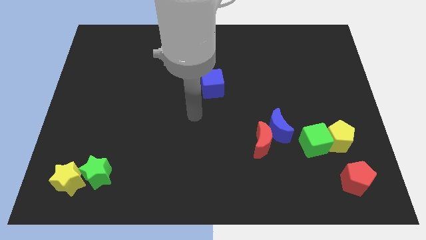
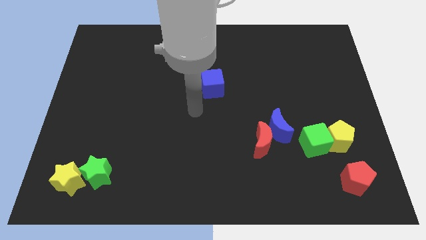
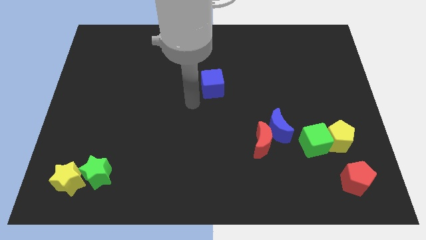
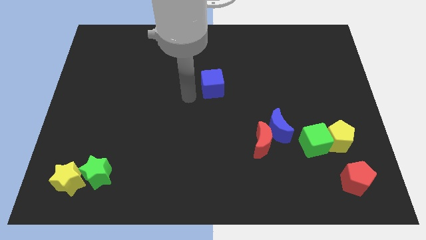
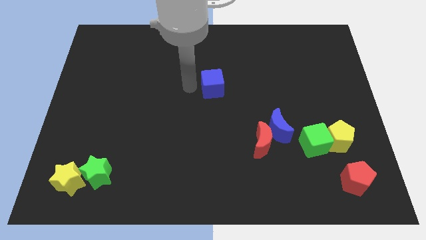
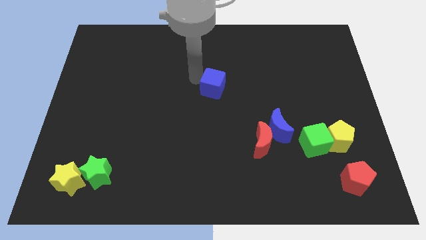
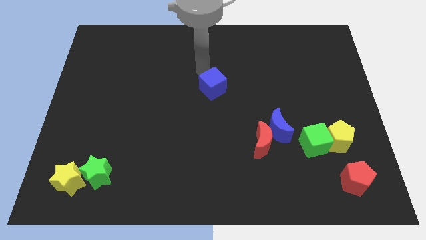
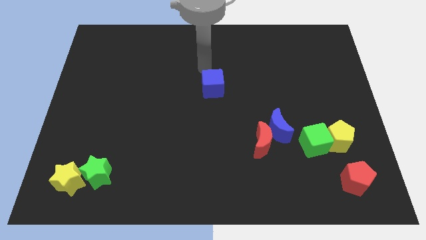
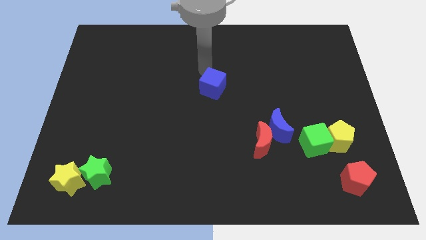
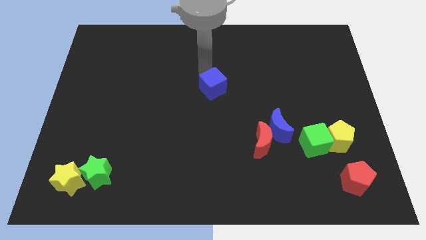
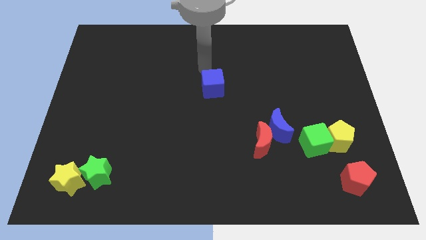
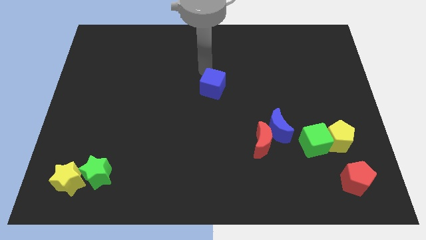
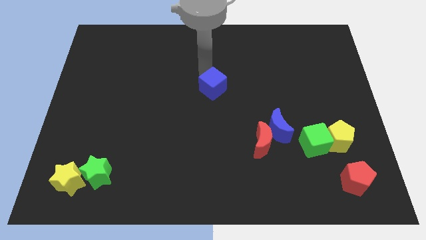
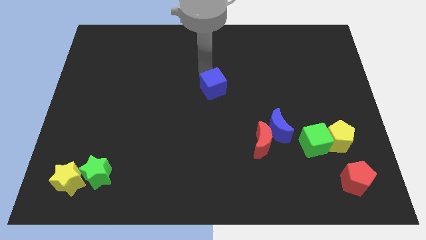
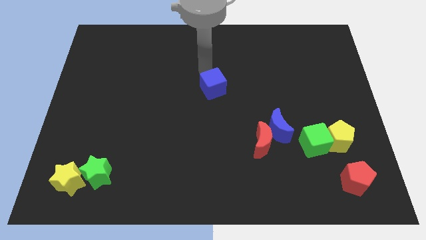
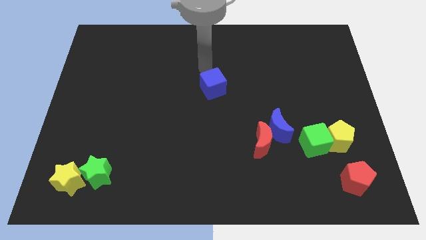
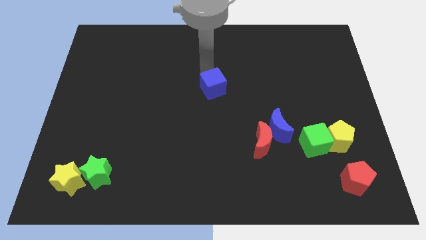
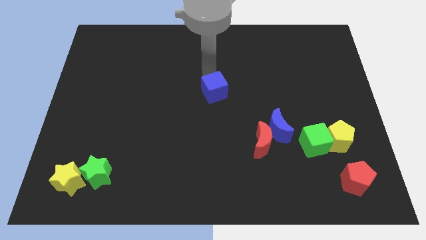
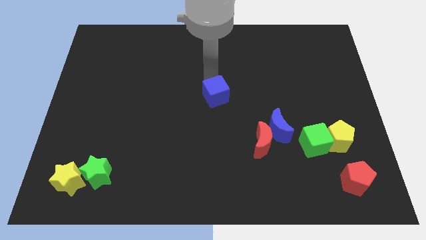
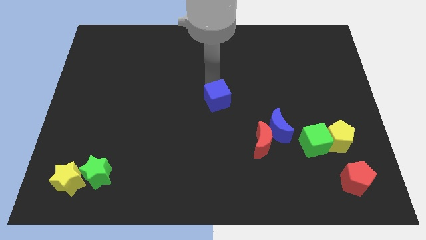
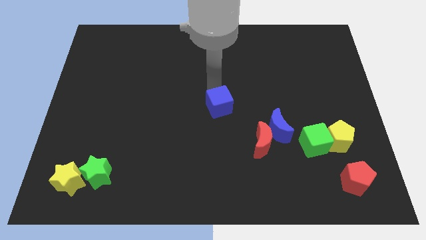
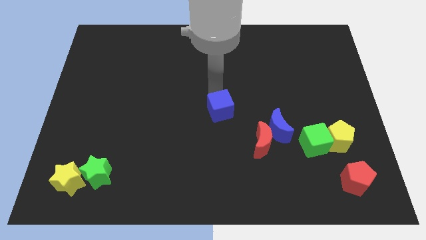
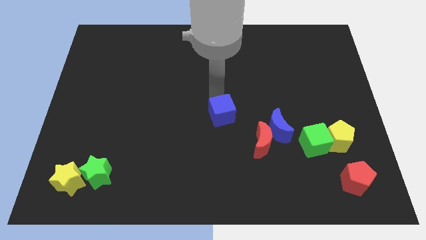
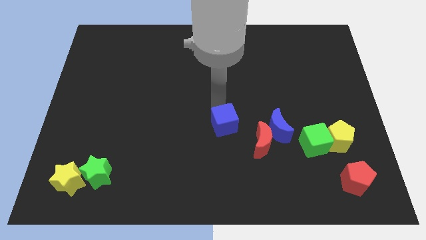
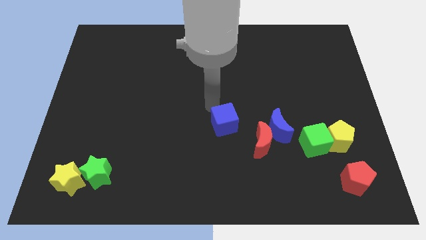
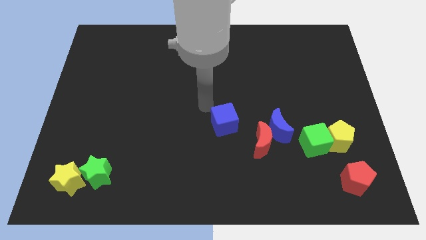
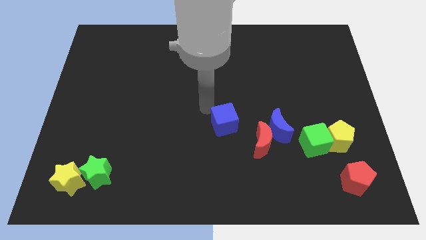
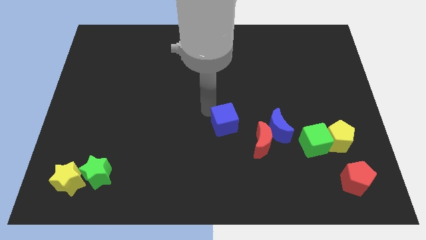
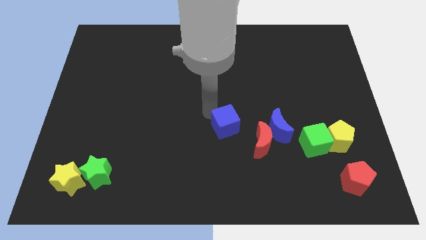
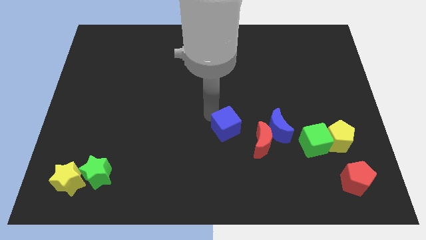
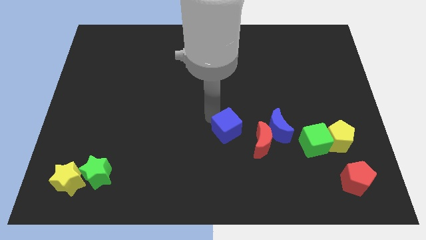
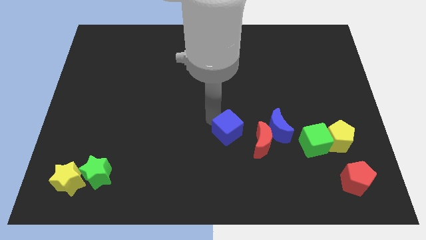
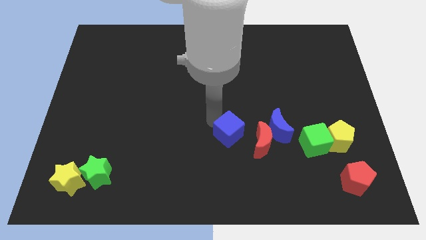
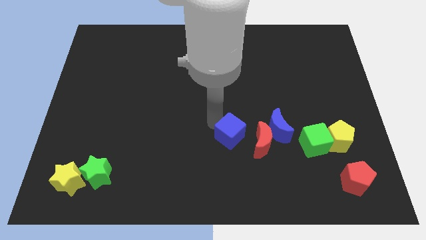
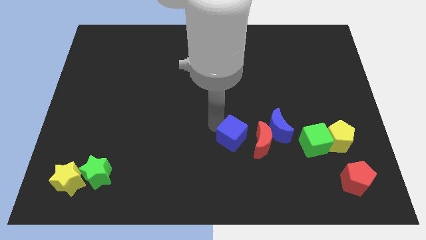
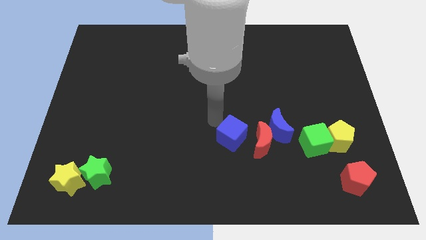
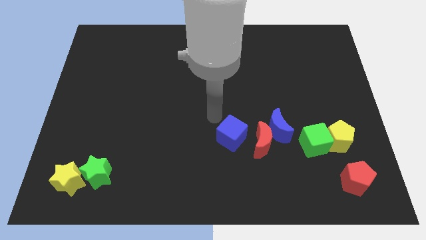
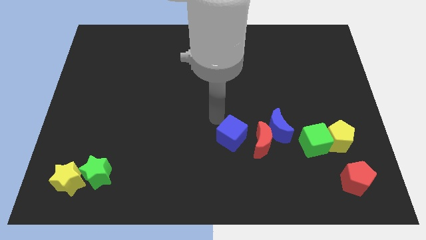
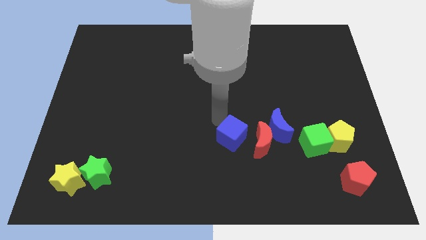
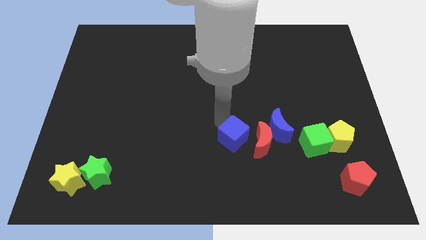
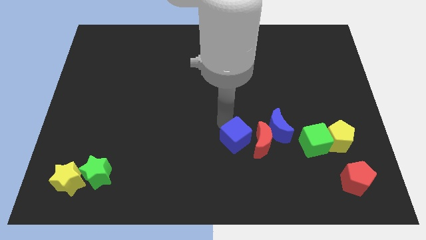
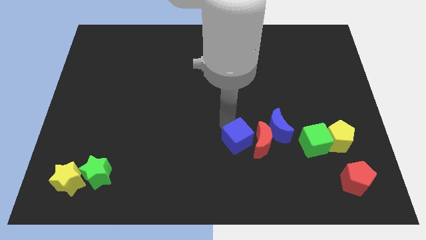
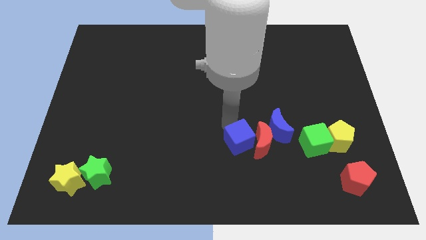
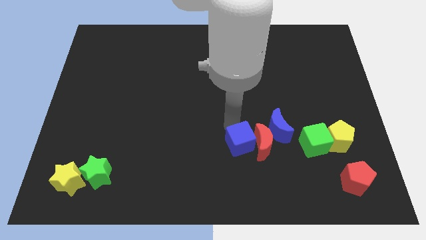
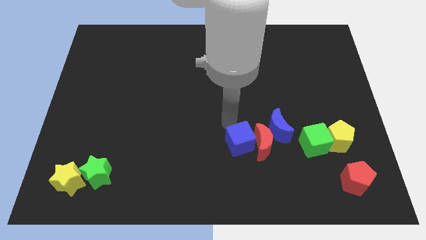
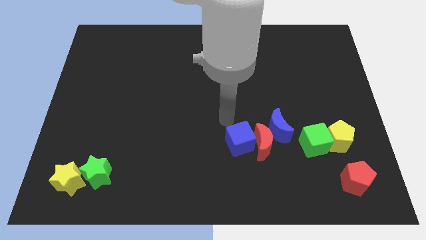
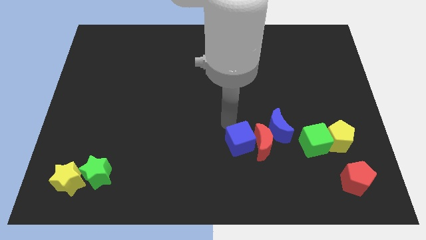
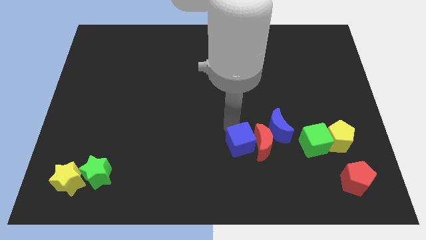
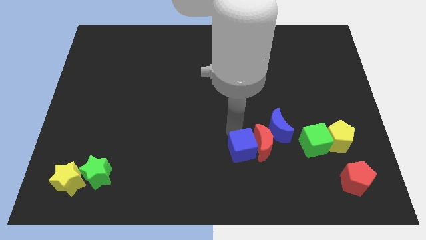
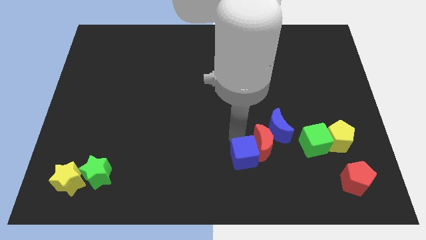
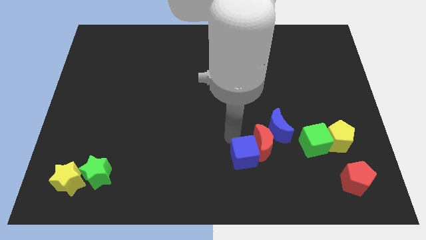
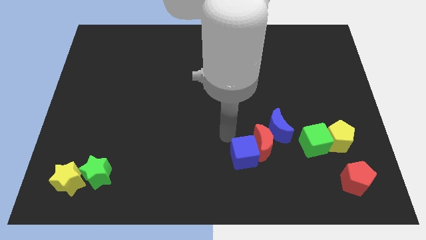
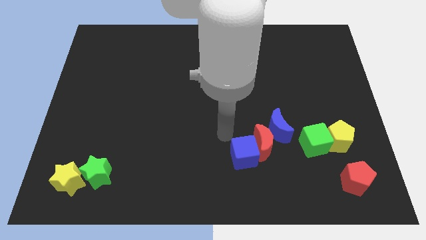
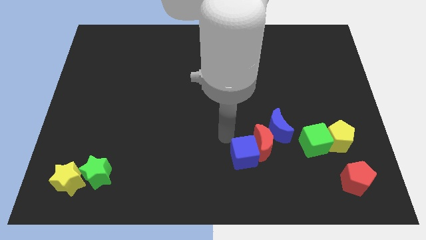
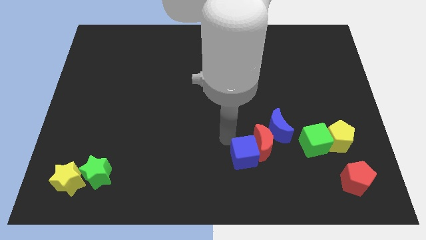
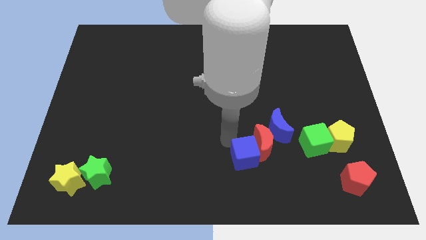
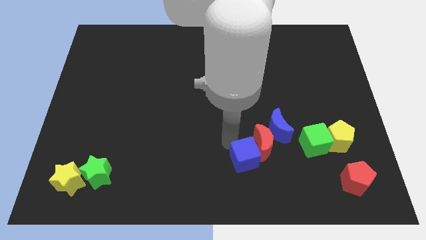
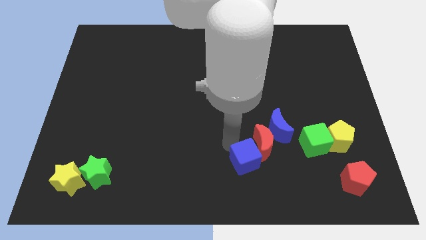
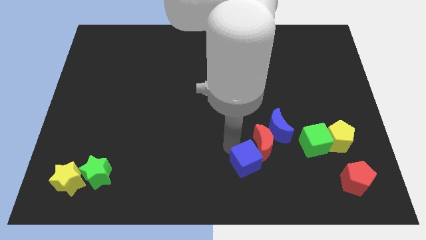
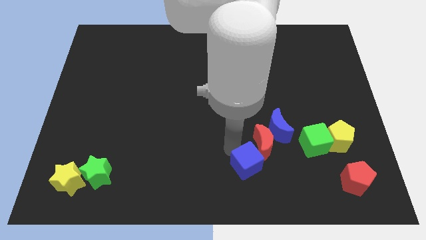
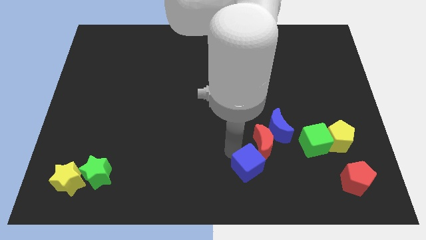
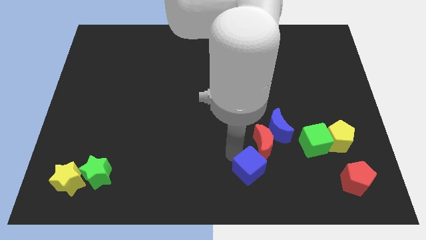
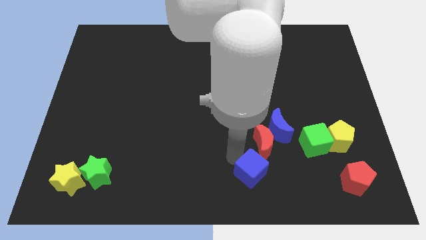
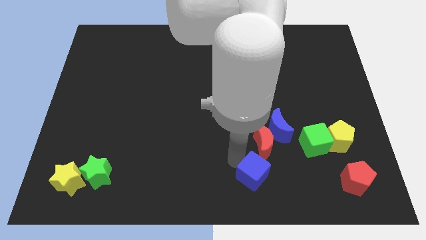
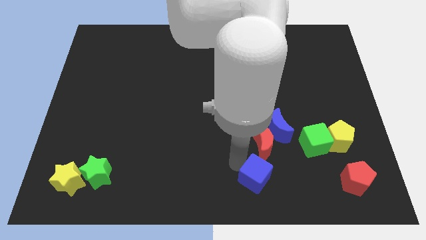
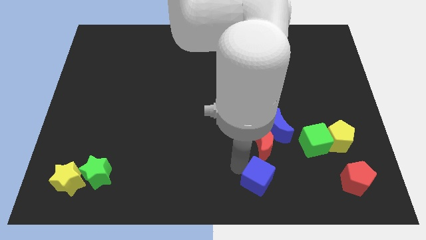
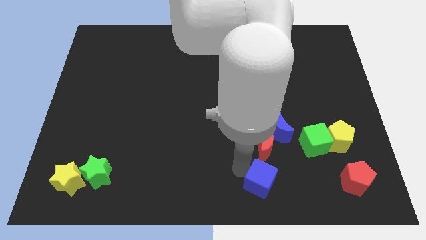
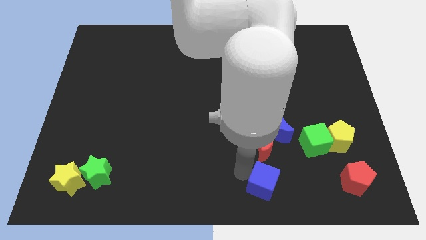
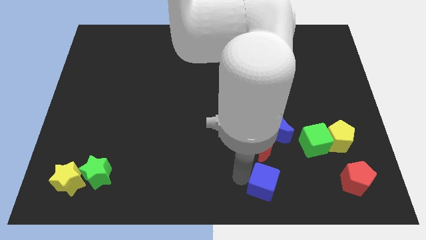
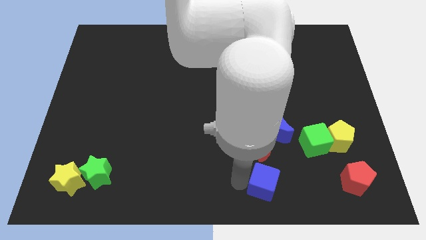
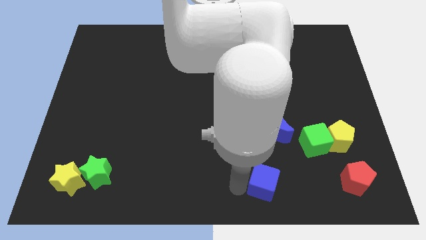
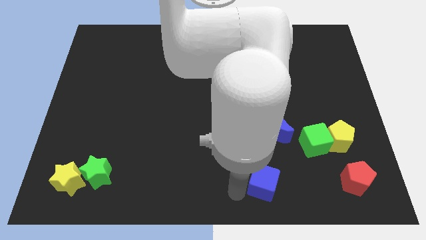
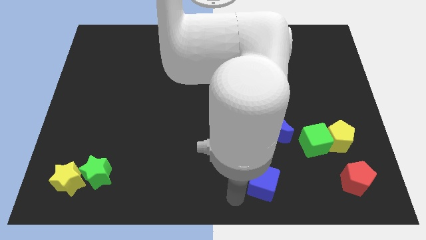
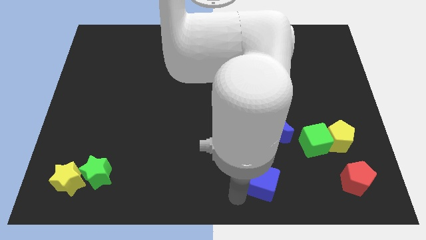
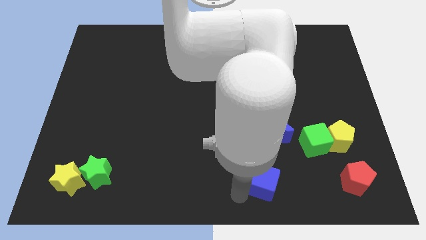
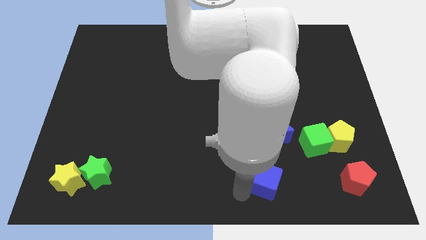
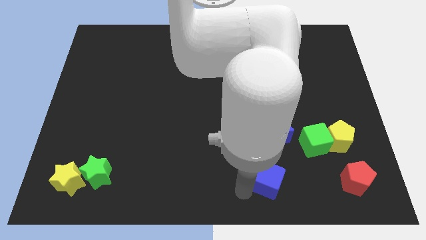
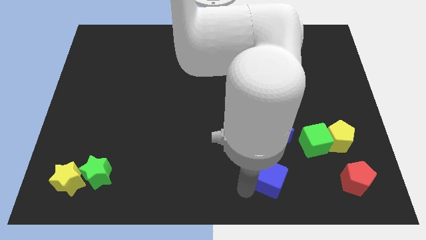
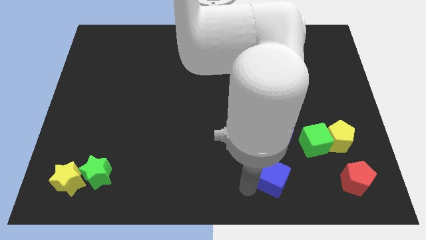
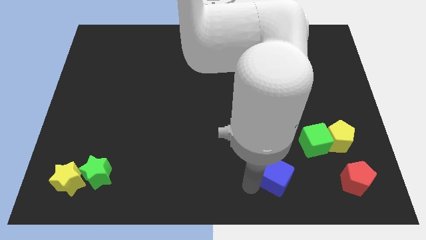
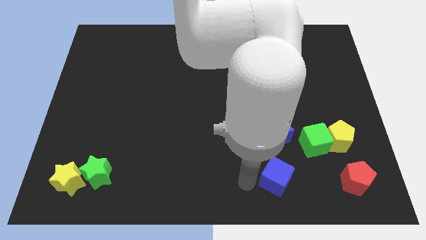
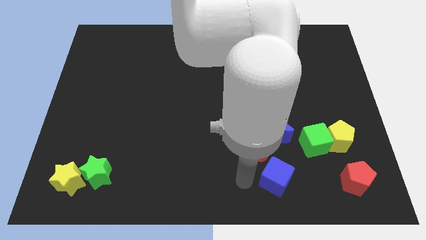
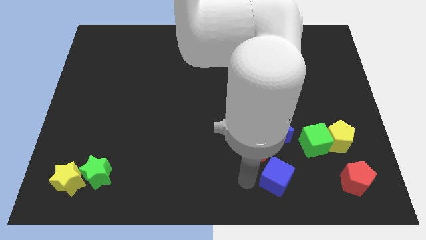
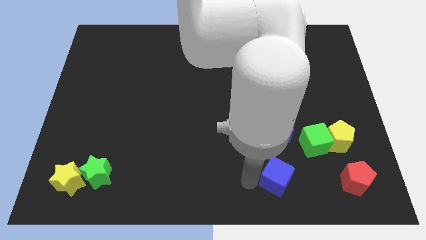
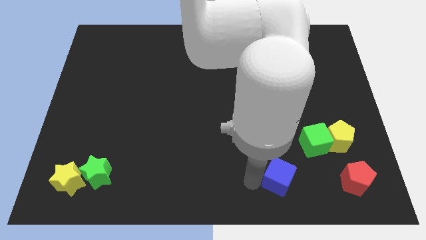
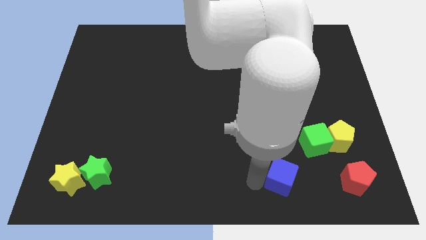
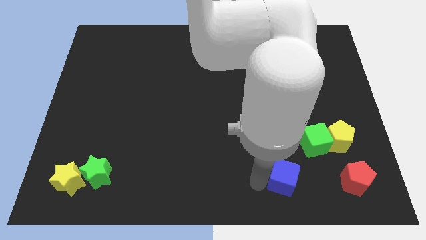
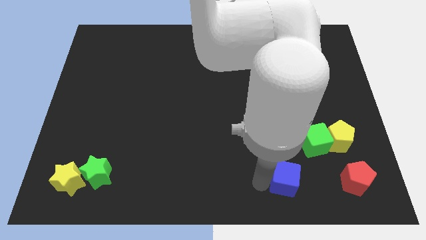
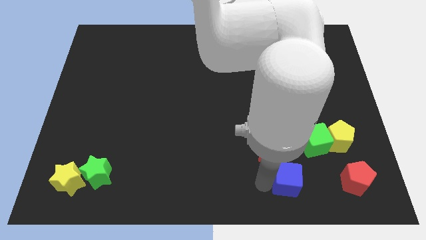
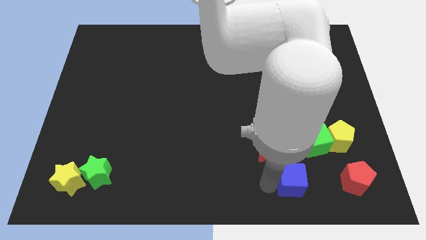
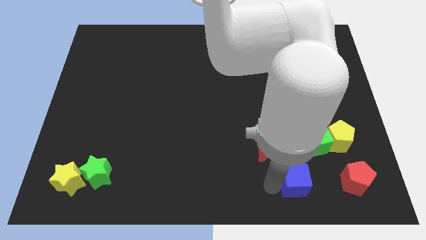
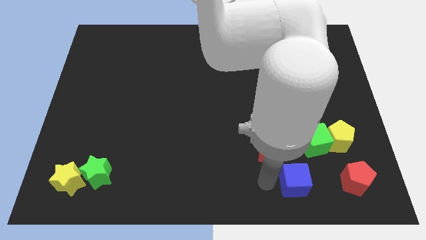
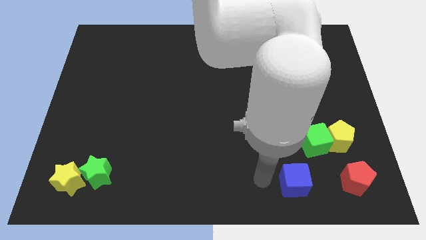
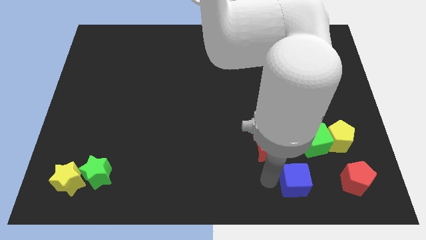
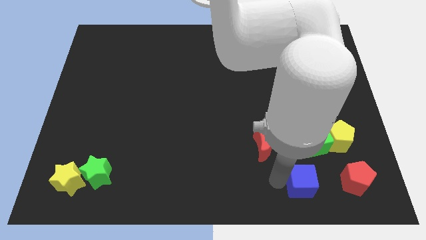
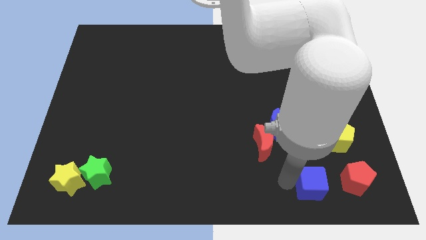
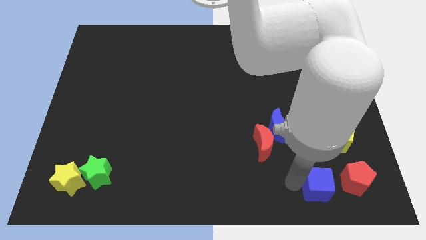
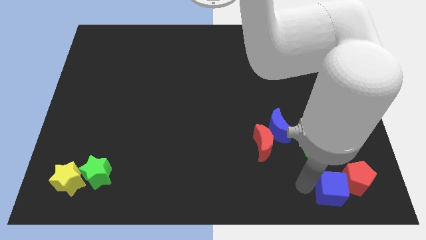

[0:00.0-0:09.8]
push the blue cube close to the red pentagon
